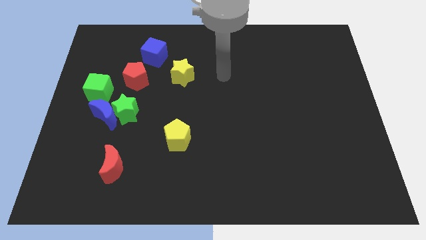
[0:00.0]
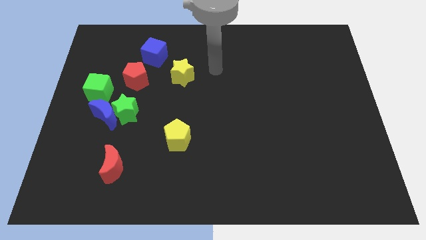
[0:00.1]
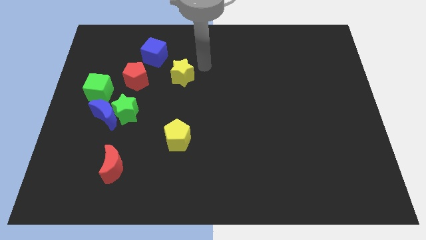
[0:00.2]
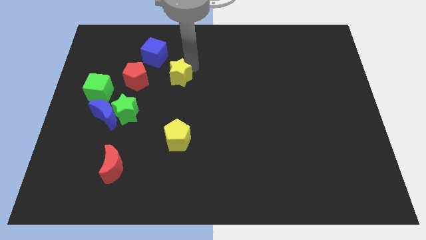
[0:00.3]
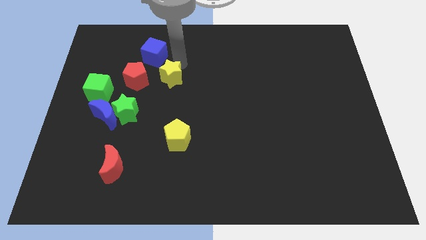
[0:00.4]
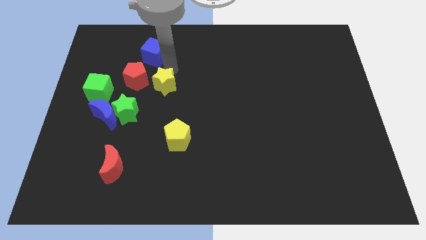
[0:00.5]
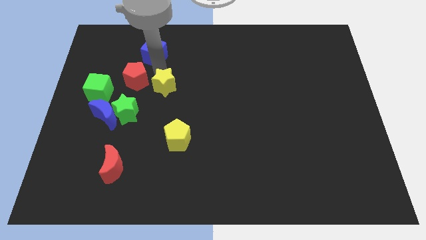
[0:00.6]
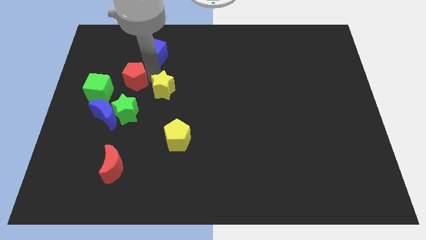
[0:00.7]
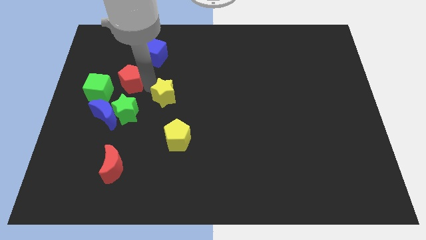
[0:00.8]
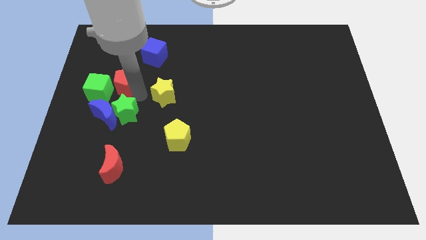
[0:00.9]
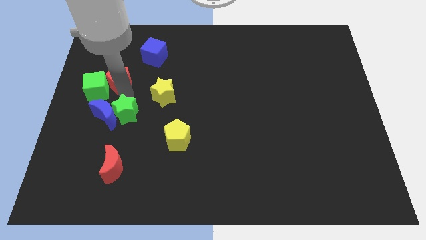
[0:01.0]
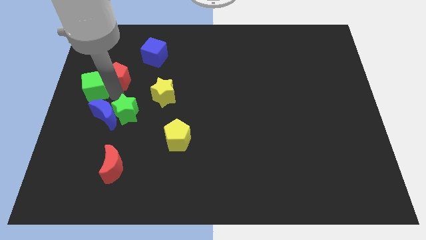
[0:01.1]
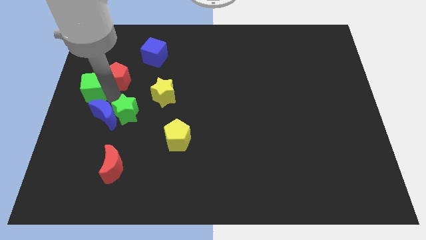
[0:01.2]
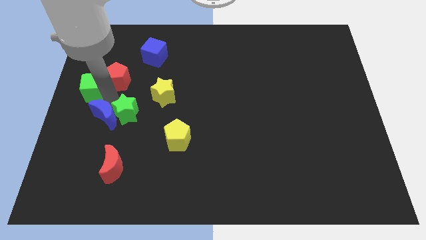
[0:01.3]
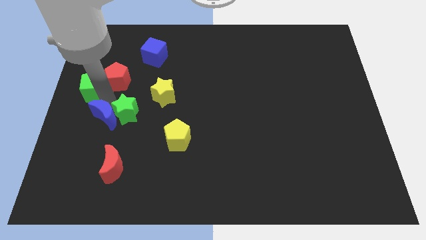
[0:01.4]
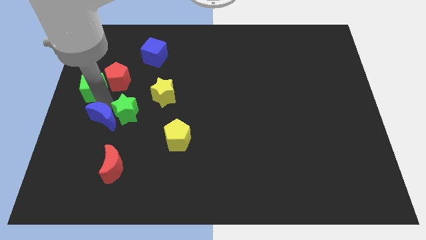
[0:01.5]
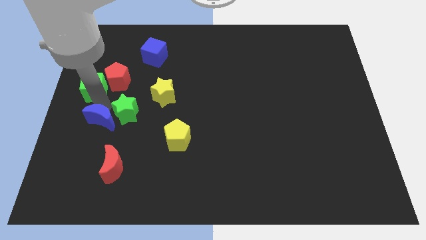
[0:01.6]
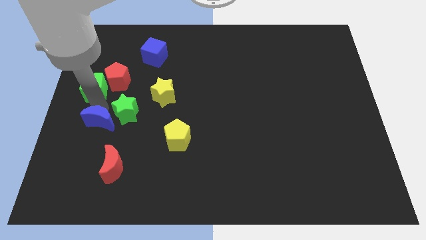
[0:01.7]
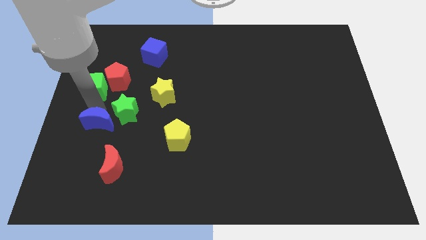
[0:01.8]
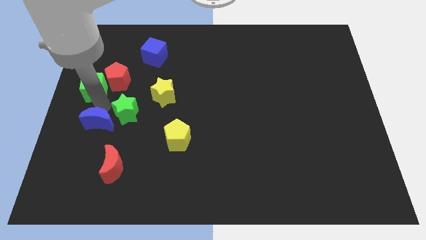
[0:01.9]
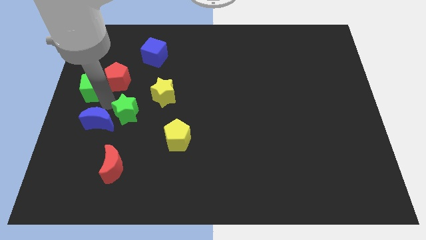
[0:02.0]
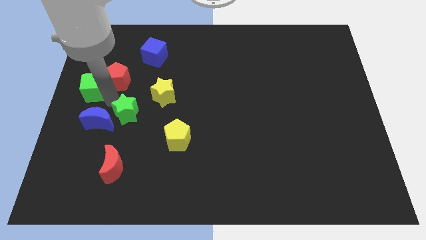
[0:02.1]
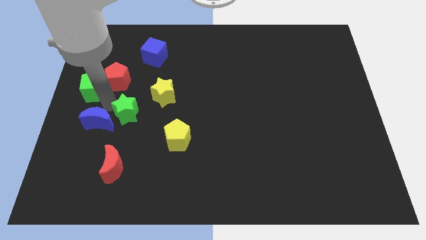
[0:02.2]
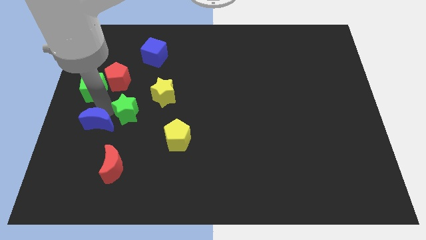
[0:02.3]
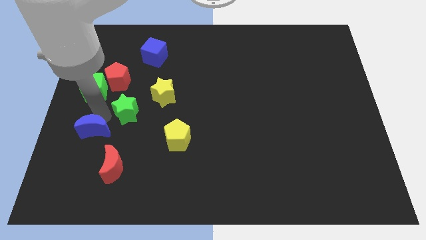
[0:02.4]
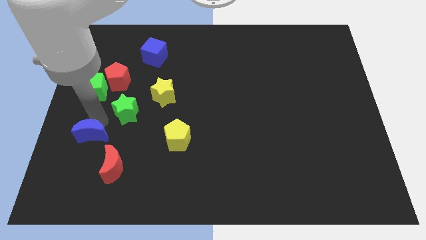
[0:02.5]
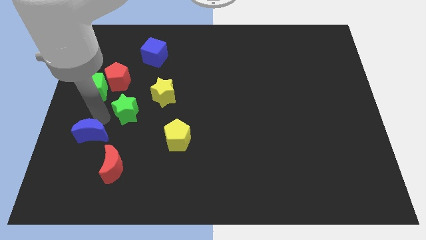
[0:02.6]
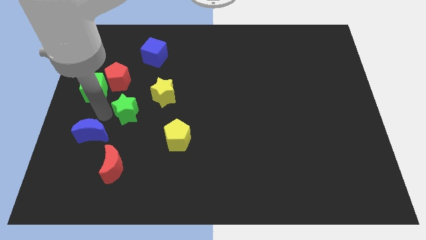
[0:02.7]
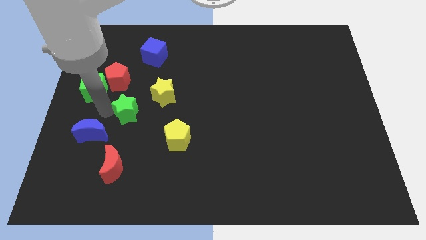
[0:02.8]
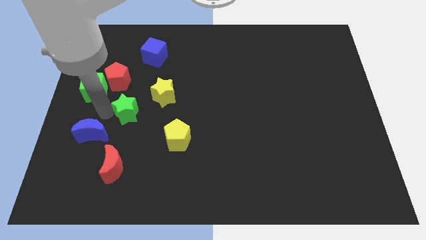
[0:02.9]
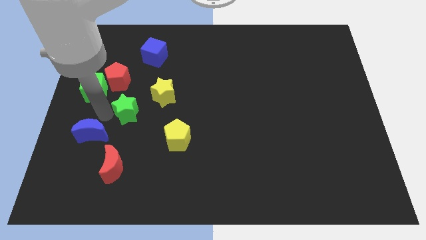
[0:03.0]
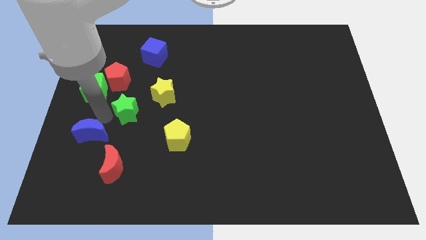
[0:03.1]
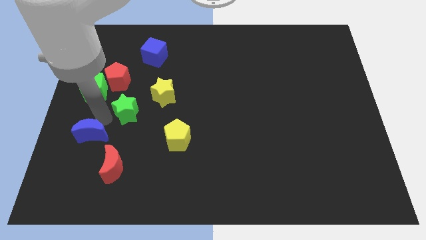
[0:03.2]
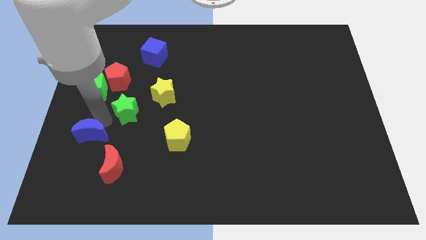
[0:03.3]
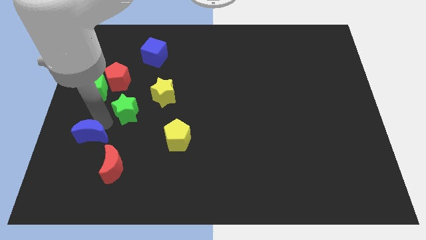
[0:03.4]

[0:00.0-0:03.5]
separate the blue moon from the green star and green cube

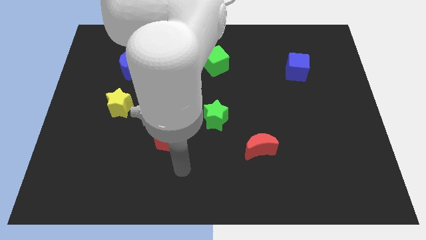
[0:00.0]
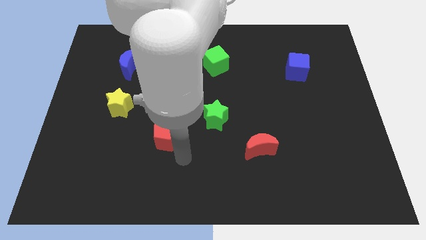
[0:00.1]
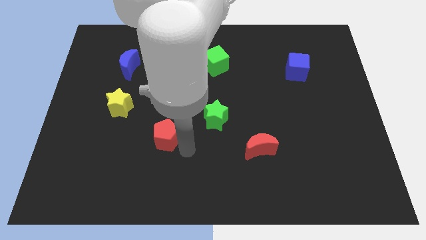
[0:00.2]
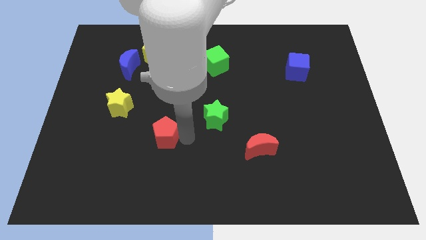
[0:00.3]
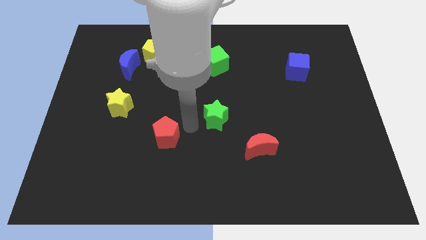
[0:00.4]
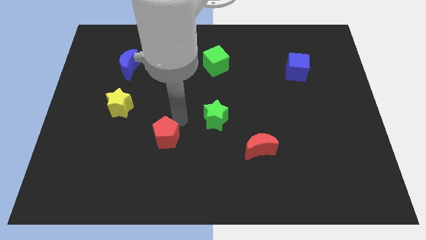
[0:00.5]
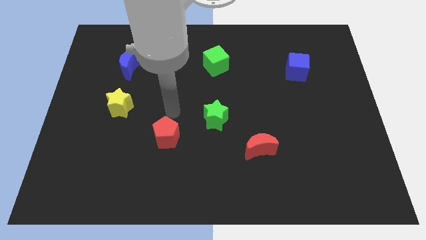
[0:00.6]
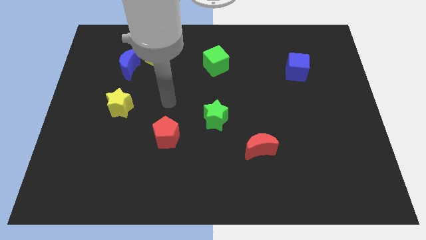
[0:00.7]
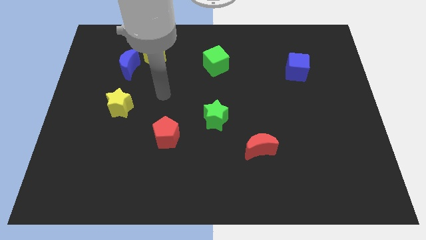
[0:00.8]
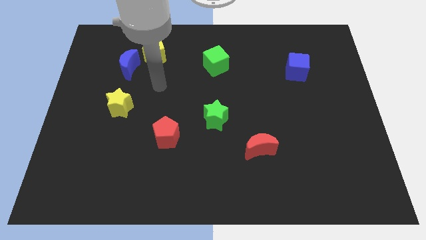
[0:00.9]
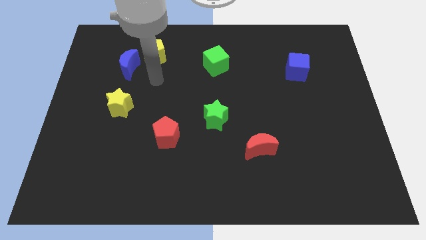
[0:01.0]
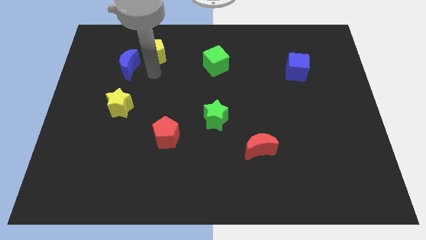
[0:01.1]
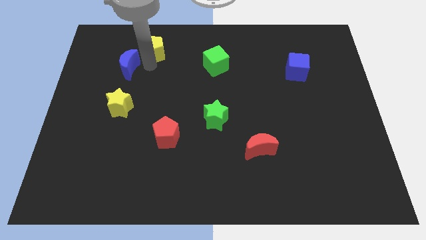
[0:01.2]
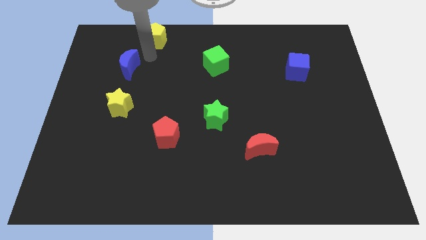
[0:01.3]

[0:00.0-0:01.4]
pull the blue moon apart from the yellow pentagon

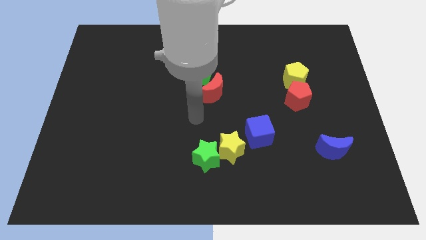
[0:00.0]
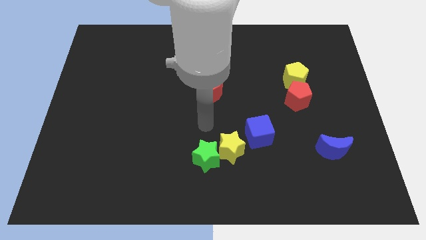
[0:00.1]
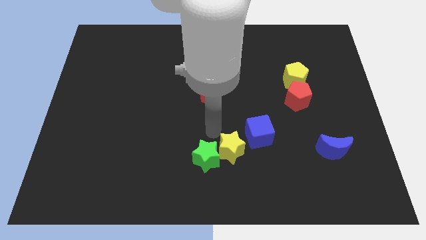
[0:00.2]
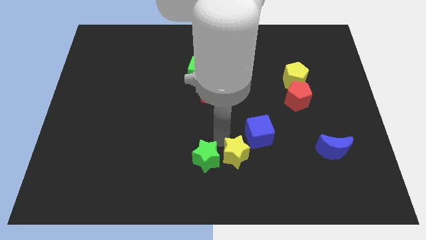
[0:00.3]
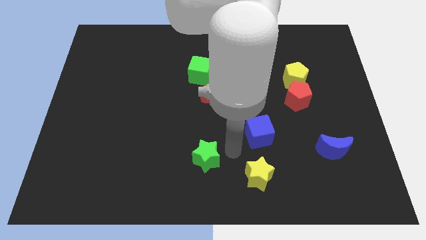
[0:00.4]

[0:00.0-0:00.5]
pull the green star apart from the yellow star

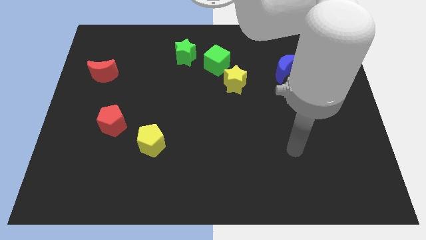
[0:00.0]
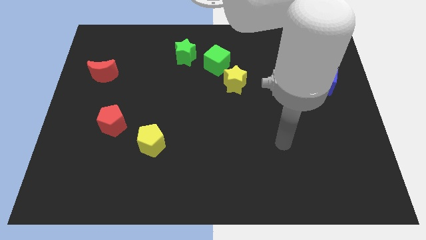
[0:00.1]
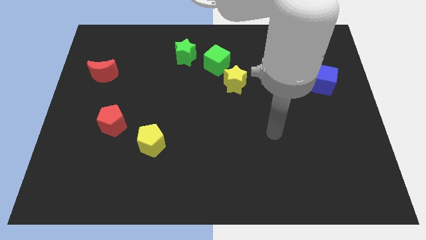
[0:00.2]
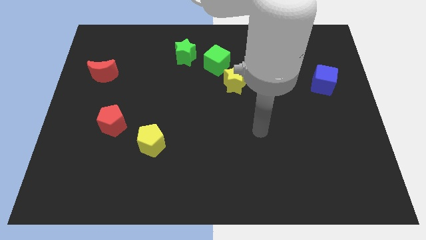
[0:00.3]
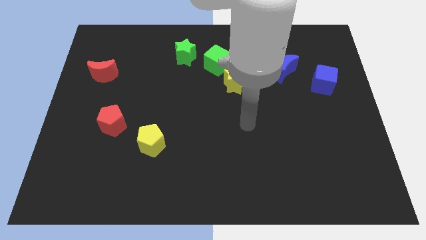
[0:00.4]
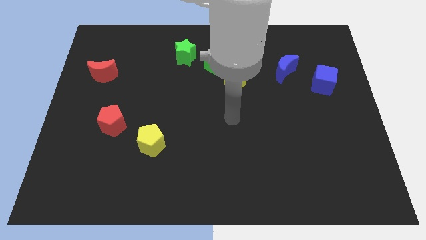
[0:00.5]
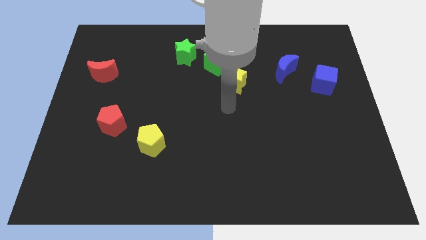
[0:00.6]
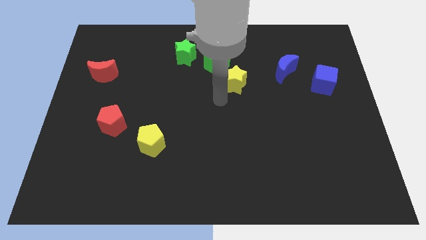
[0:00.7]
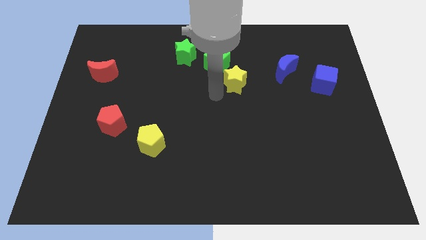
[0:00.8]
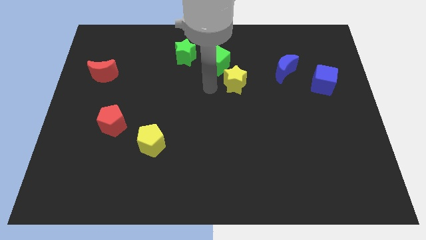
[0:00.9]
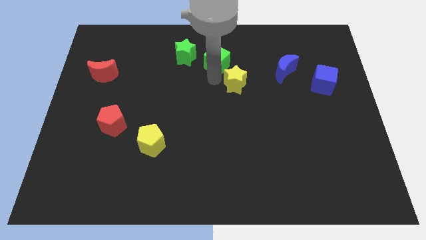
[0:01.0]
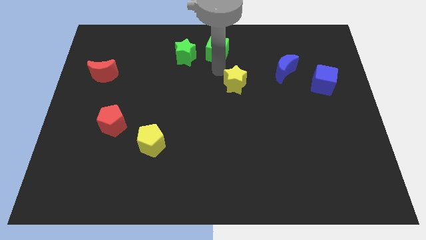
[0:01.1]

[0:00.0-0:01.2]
move the yellow star away from the green cube

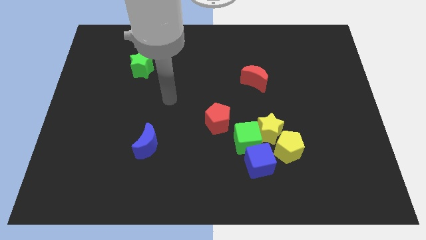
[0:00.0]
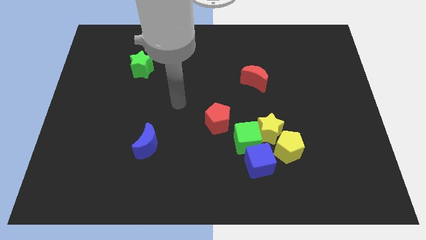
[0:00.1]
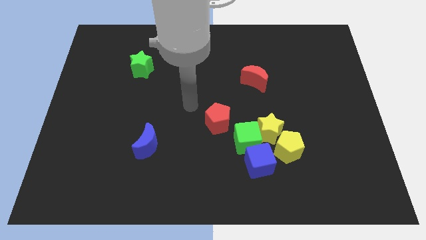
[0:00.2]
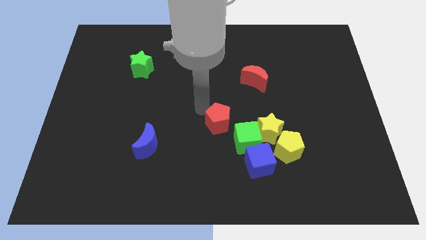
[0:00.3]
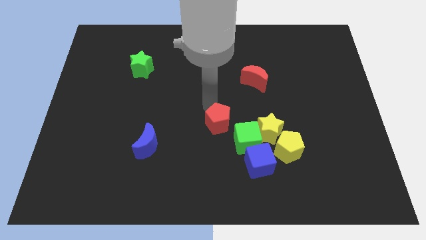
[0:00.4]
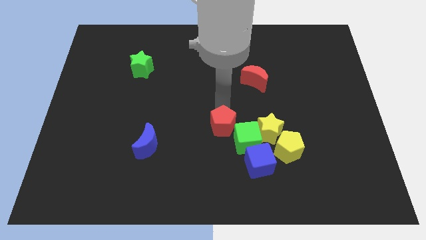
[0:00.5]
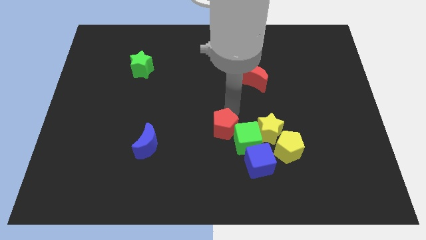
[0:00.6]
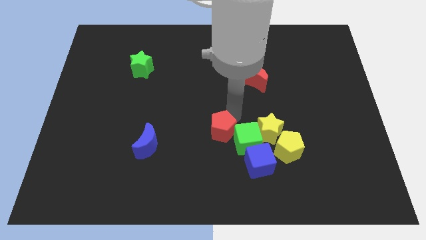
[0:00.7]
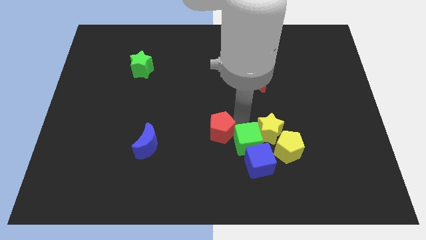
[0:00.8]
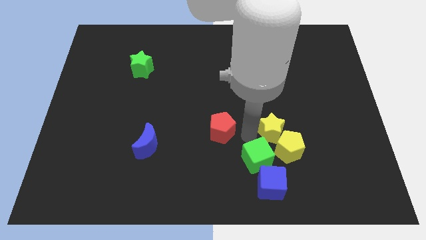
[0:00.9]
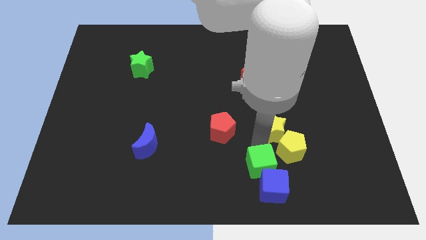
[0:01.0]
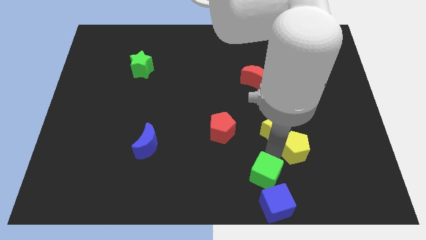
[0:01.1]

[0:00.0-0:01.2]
separate the yellow star from the green cube, yellow pentagon, and blue cube

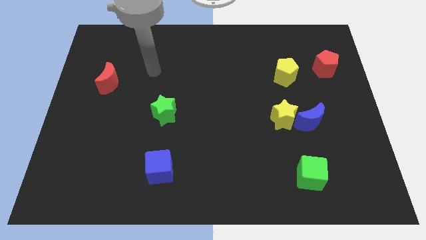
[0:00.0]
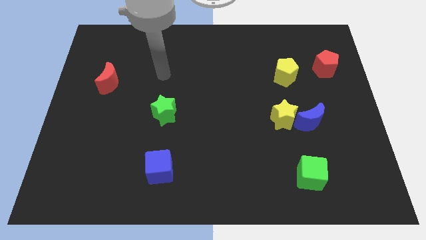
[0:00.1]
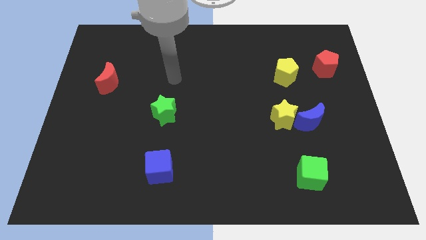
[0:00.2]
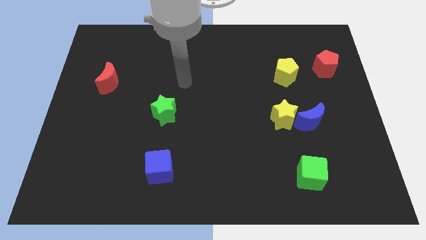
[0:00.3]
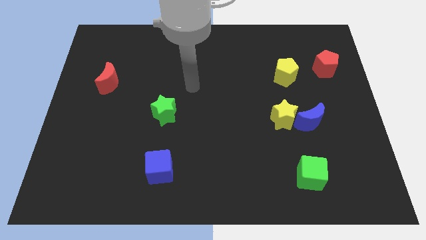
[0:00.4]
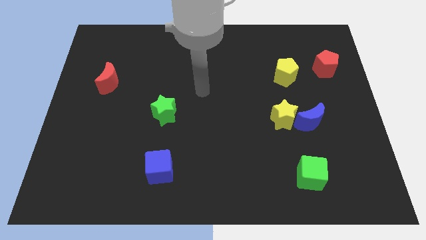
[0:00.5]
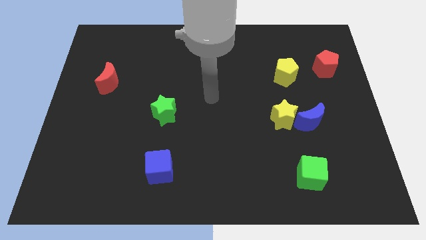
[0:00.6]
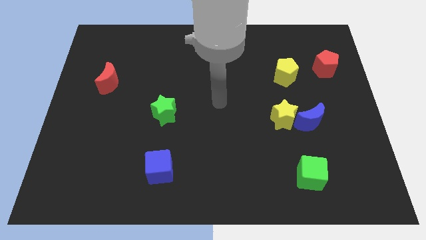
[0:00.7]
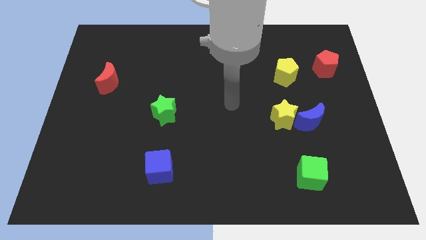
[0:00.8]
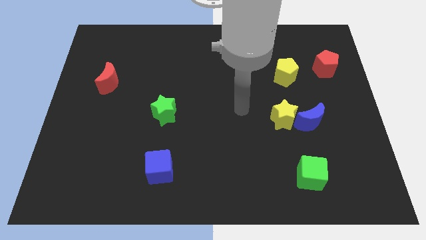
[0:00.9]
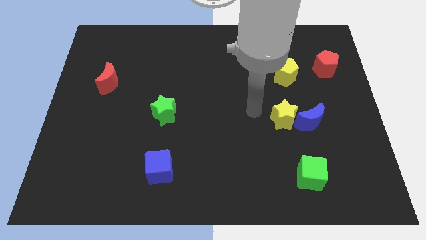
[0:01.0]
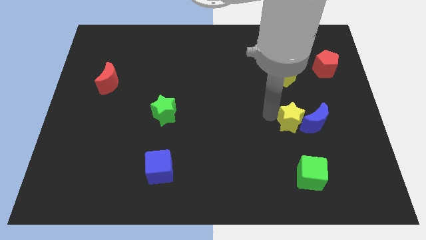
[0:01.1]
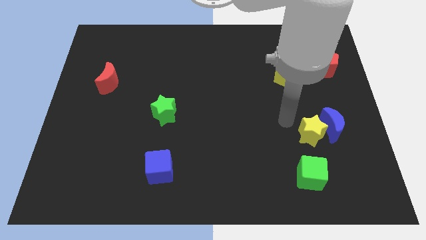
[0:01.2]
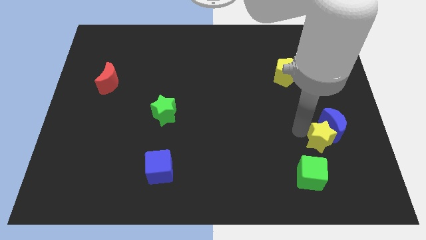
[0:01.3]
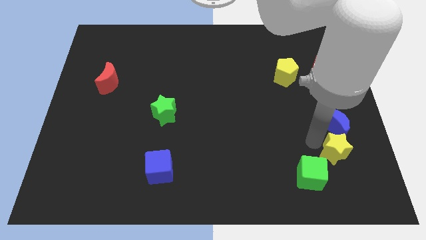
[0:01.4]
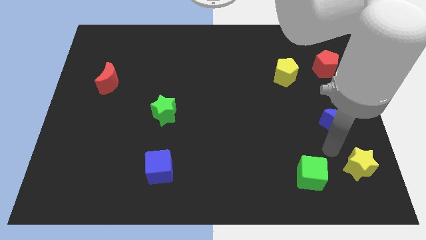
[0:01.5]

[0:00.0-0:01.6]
move the blue moon away from the yellow star
